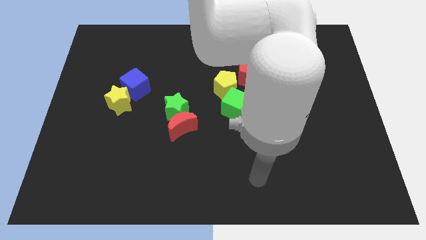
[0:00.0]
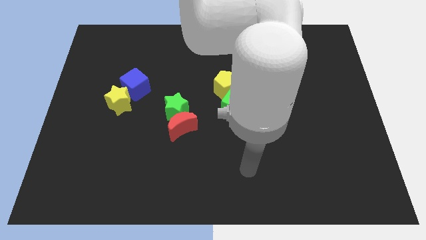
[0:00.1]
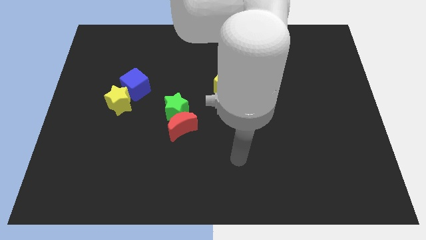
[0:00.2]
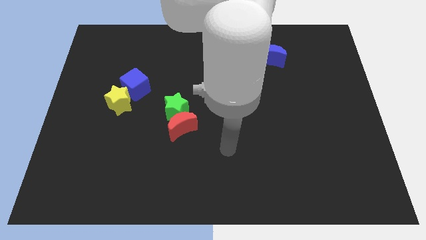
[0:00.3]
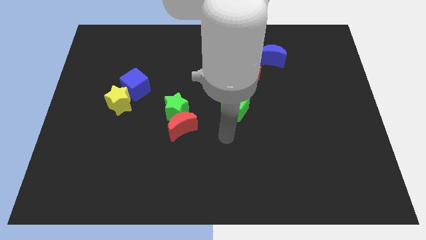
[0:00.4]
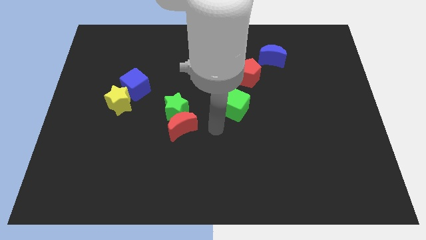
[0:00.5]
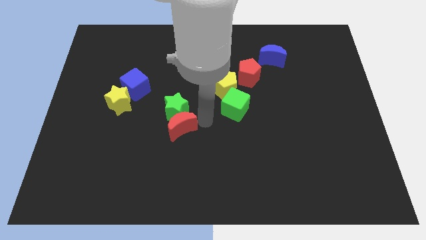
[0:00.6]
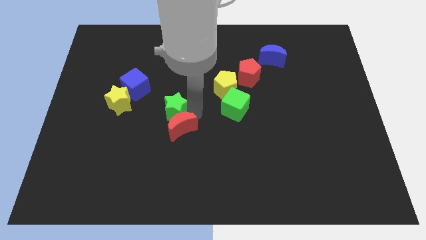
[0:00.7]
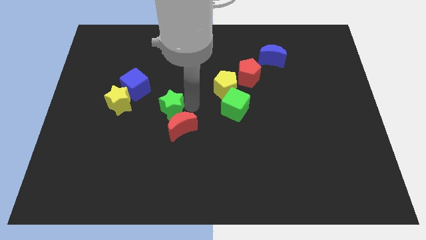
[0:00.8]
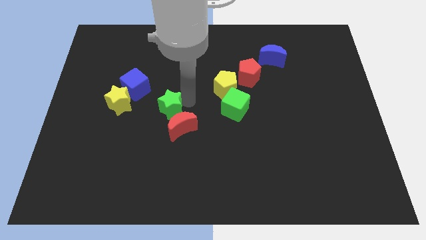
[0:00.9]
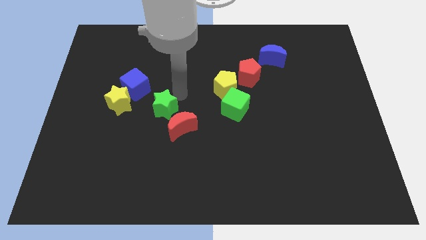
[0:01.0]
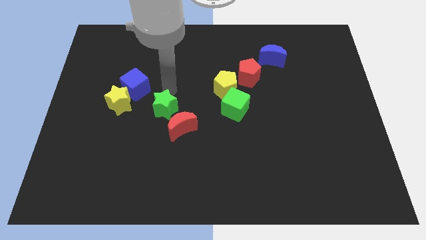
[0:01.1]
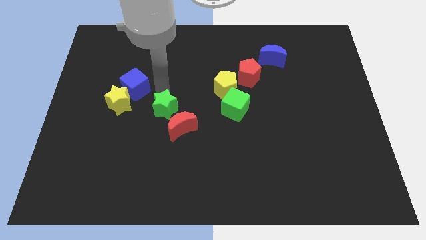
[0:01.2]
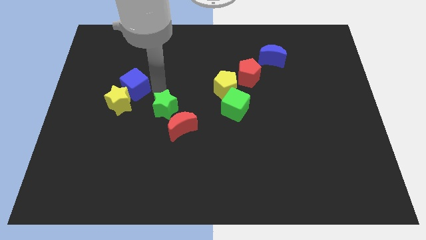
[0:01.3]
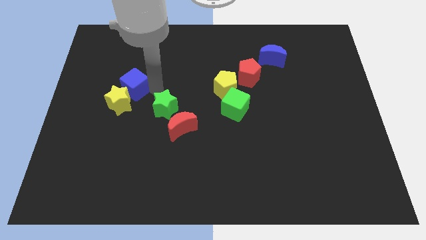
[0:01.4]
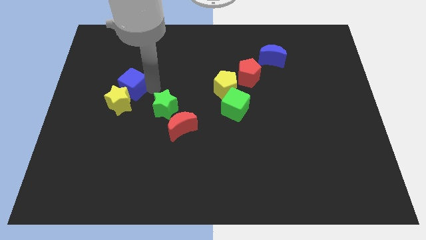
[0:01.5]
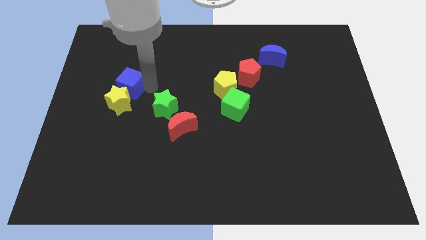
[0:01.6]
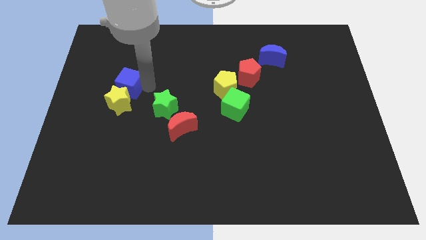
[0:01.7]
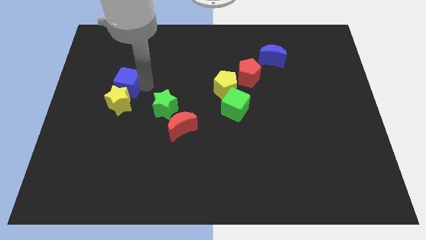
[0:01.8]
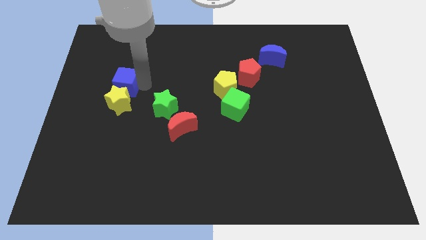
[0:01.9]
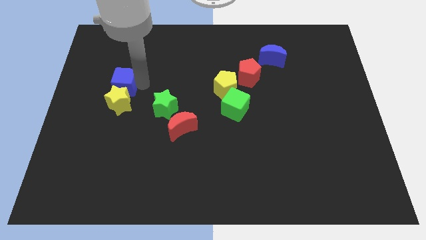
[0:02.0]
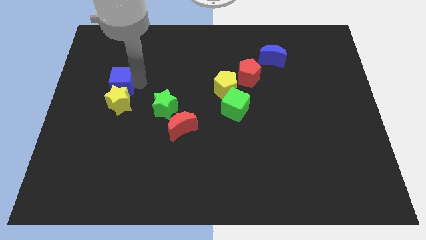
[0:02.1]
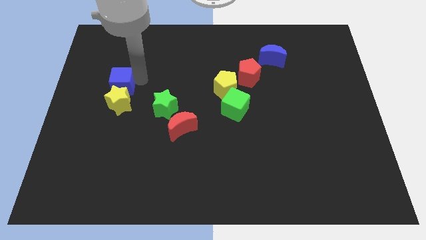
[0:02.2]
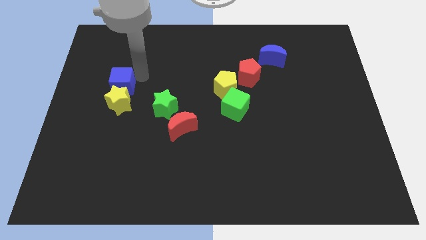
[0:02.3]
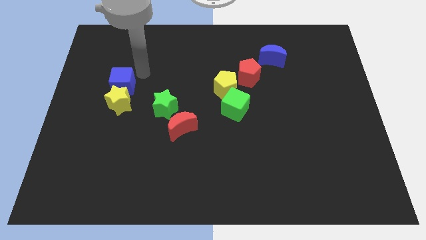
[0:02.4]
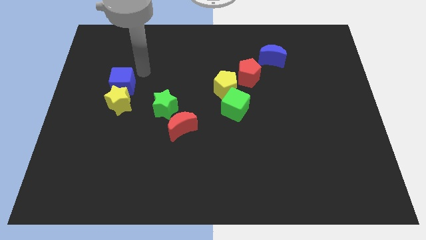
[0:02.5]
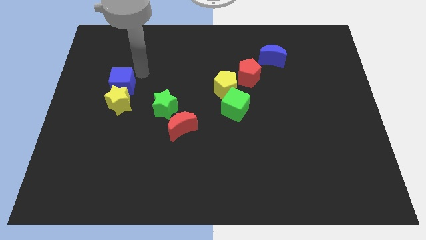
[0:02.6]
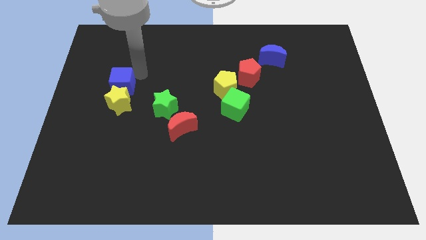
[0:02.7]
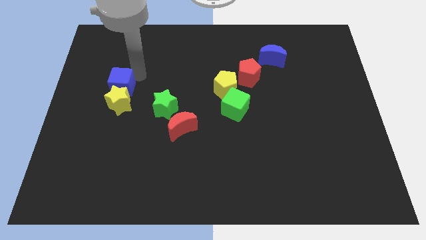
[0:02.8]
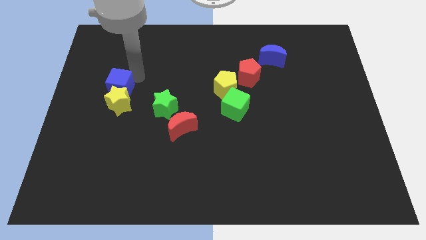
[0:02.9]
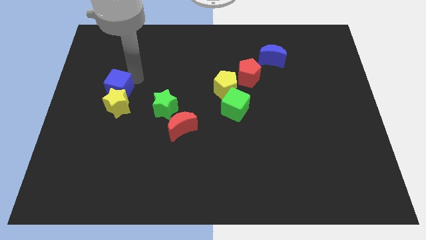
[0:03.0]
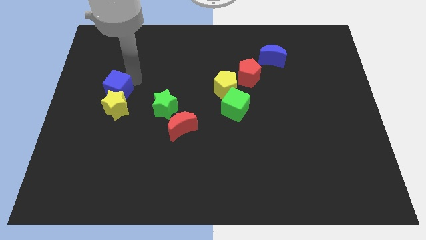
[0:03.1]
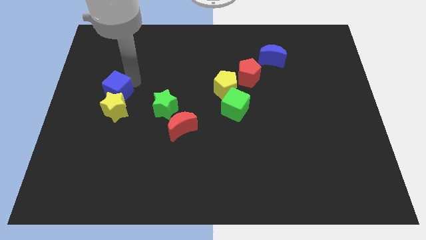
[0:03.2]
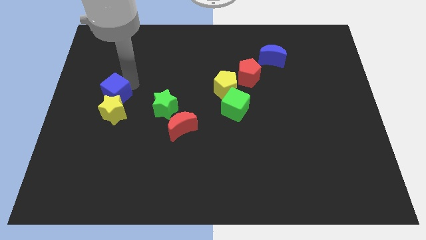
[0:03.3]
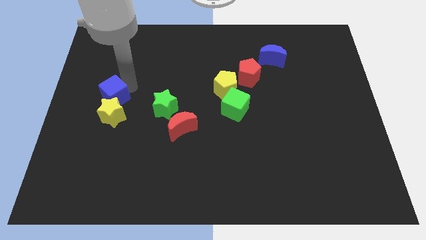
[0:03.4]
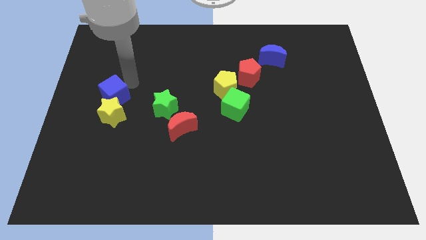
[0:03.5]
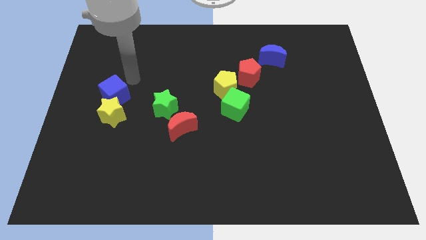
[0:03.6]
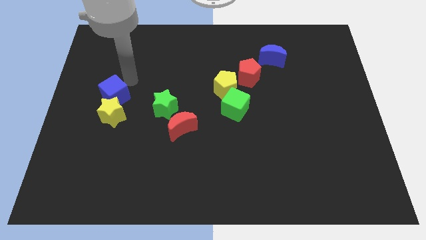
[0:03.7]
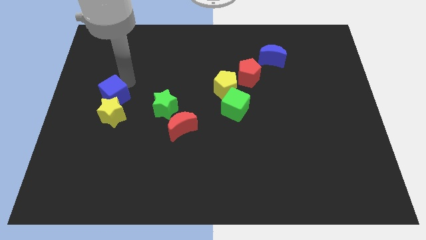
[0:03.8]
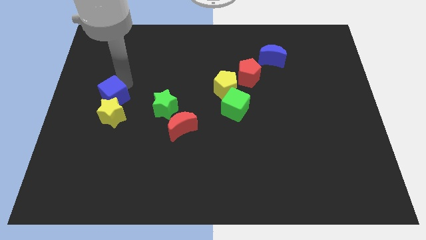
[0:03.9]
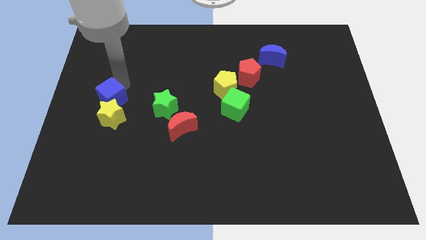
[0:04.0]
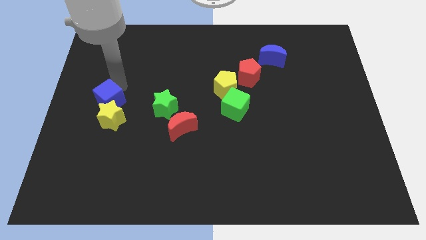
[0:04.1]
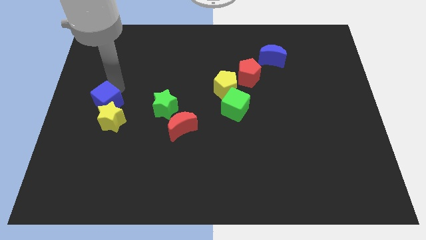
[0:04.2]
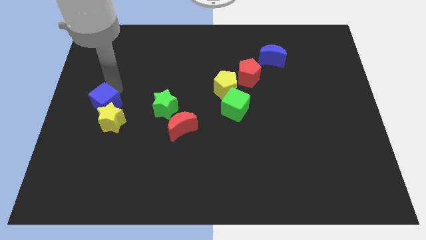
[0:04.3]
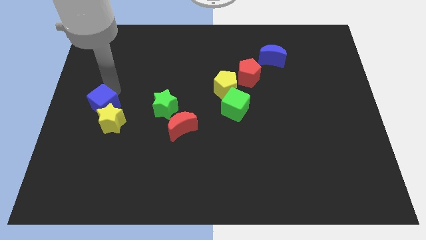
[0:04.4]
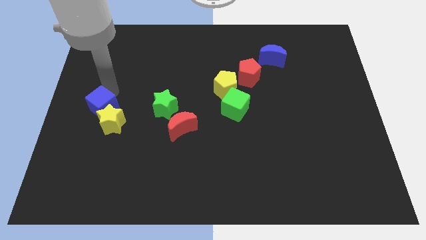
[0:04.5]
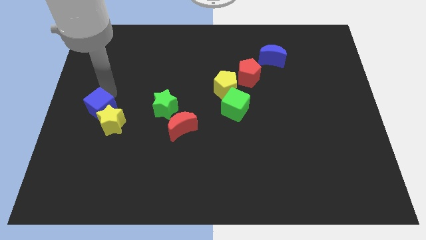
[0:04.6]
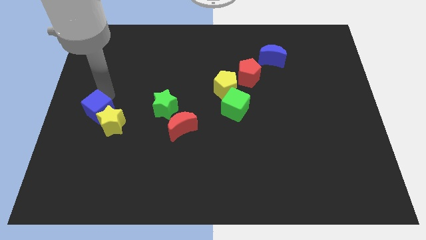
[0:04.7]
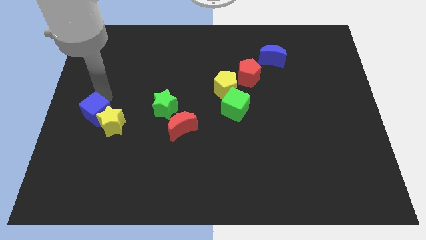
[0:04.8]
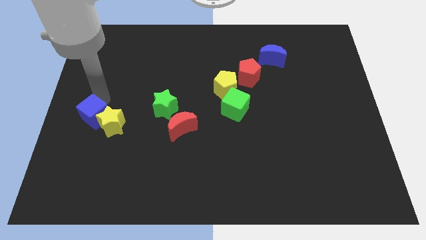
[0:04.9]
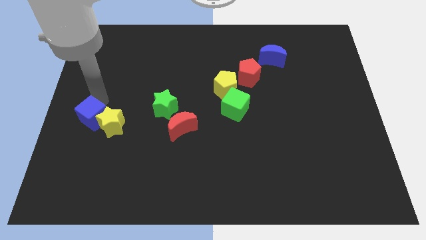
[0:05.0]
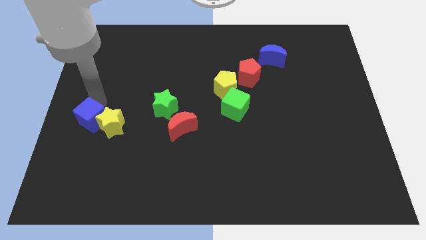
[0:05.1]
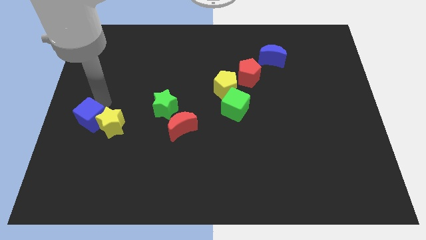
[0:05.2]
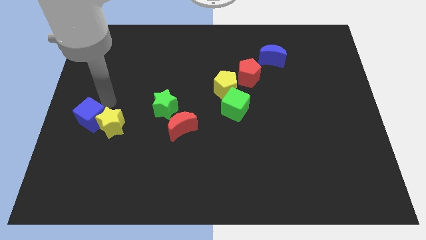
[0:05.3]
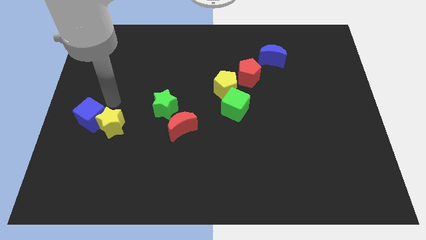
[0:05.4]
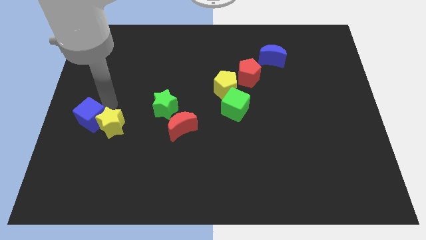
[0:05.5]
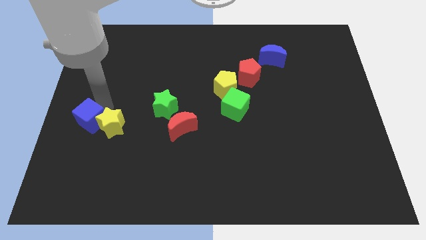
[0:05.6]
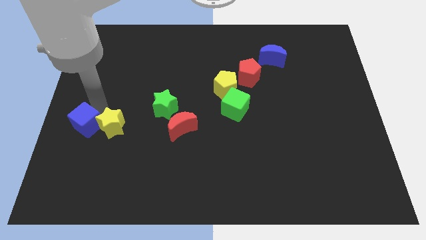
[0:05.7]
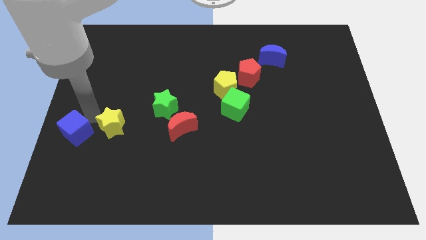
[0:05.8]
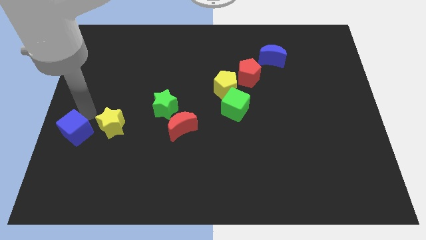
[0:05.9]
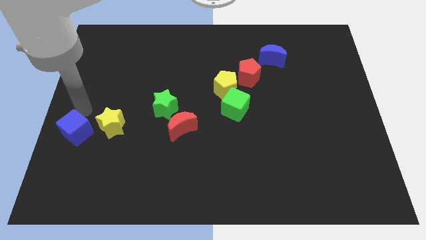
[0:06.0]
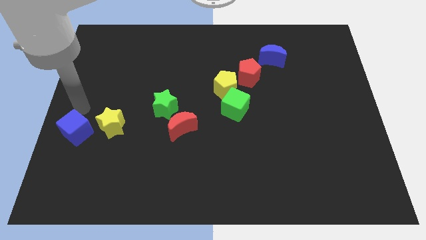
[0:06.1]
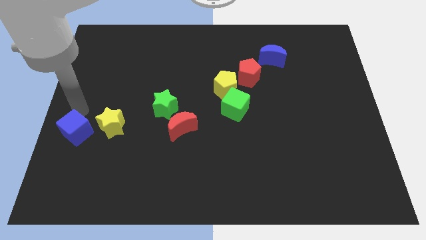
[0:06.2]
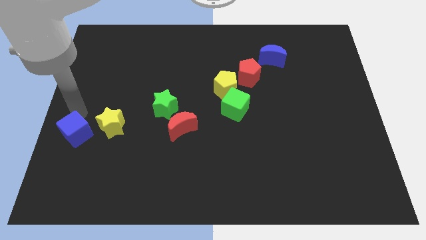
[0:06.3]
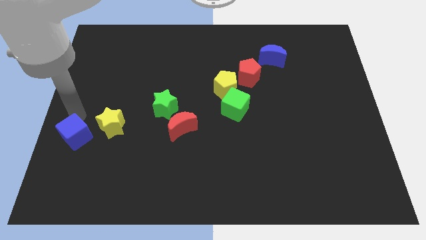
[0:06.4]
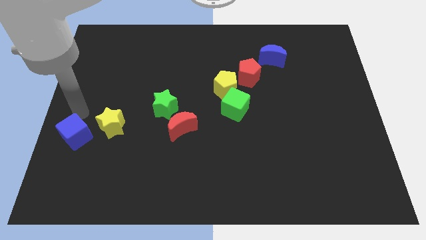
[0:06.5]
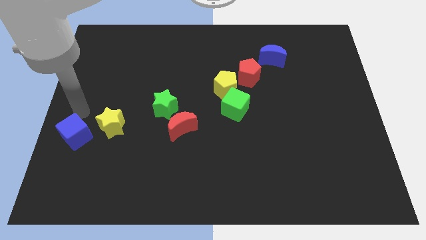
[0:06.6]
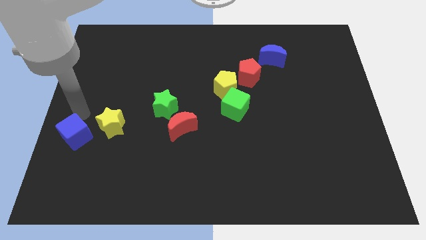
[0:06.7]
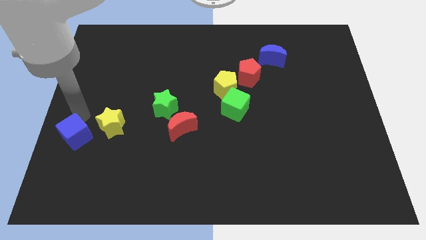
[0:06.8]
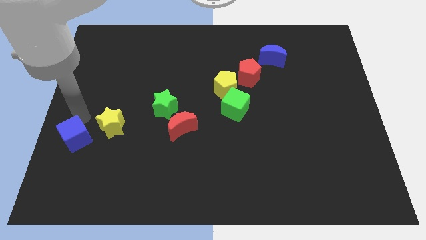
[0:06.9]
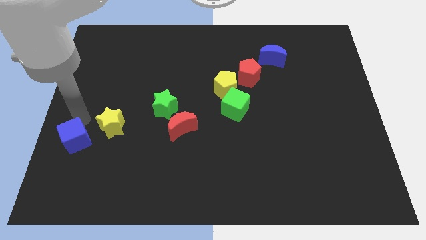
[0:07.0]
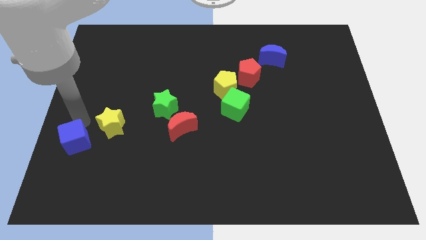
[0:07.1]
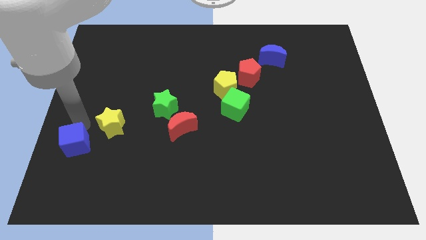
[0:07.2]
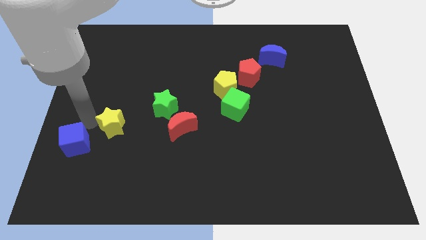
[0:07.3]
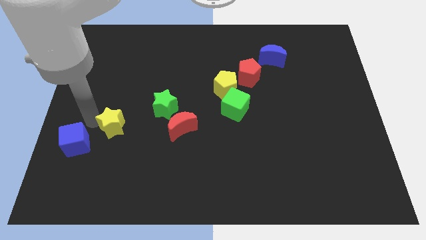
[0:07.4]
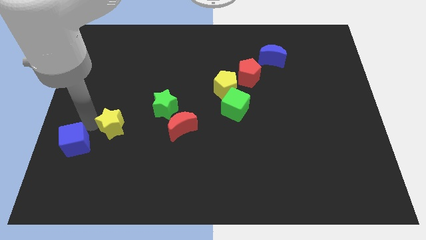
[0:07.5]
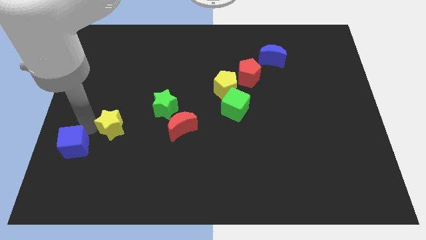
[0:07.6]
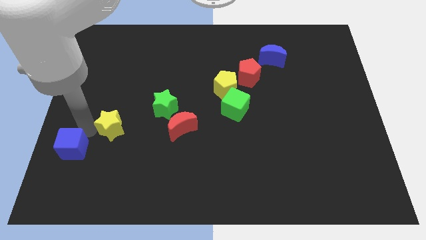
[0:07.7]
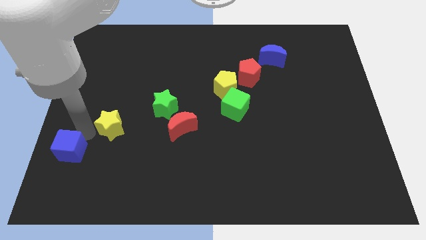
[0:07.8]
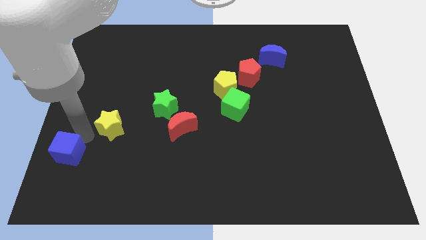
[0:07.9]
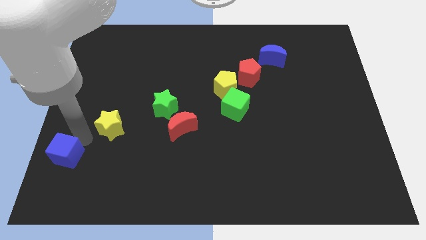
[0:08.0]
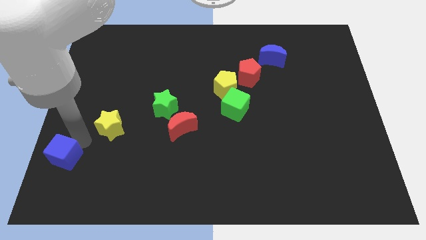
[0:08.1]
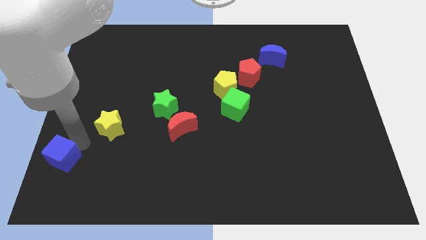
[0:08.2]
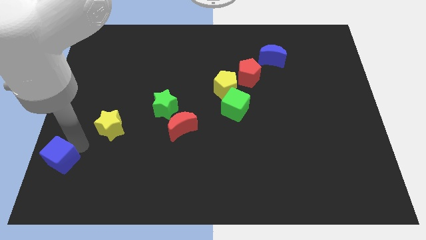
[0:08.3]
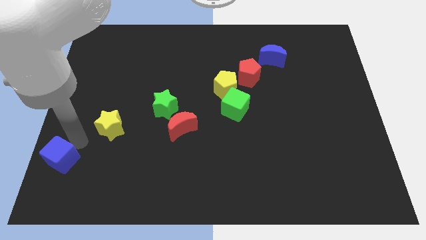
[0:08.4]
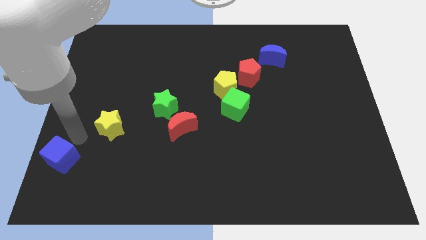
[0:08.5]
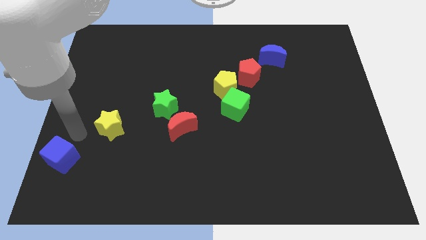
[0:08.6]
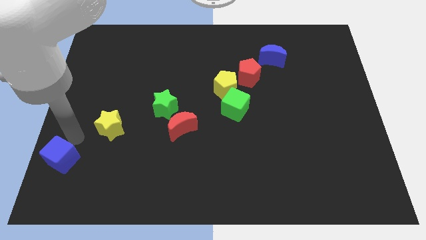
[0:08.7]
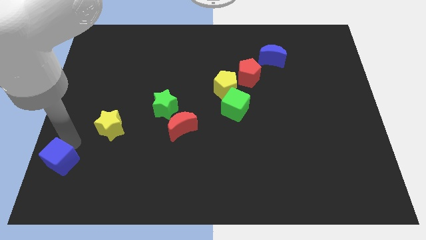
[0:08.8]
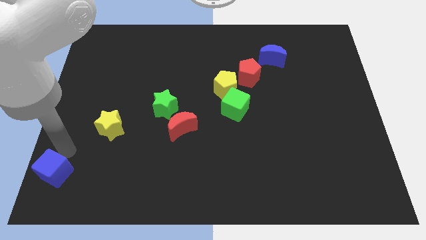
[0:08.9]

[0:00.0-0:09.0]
move the blue cube to the bottom left
